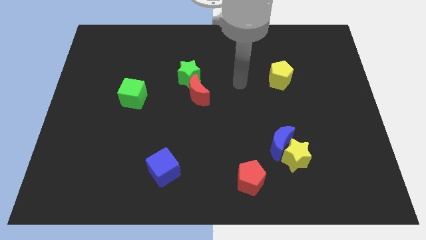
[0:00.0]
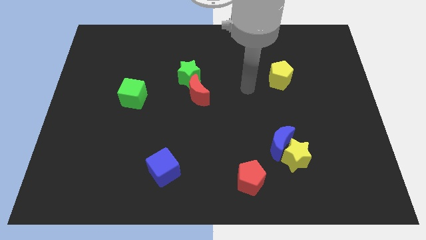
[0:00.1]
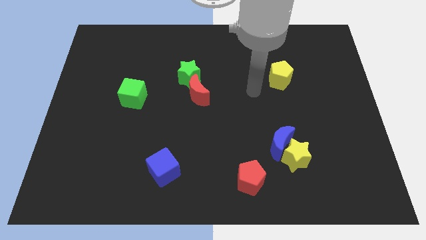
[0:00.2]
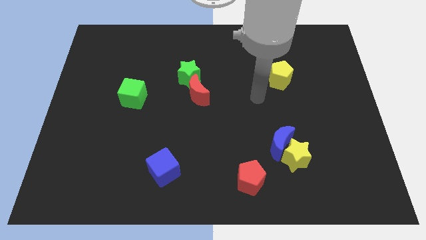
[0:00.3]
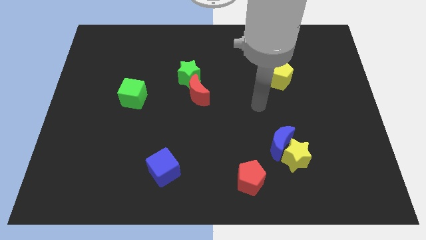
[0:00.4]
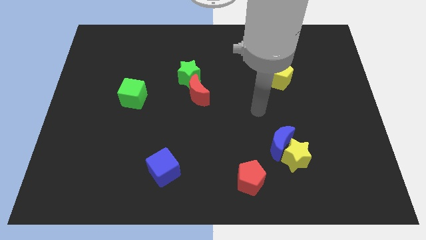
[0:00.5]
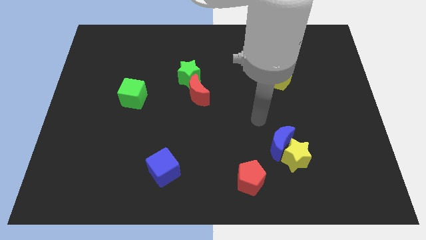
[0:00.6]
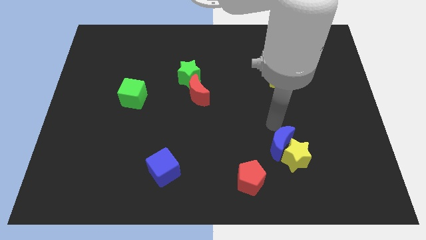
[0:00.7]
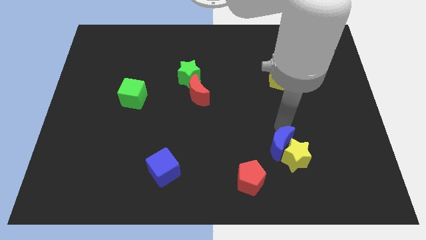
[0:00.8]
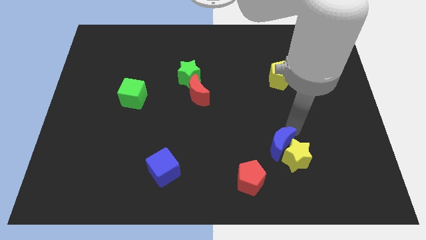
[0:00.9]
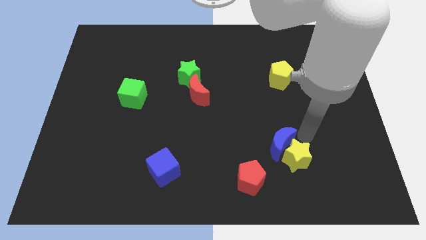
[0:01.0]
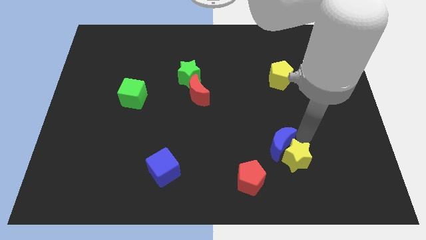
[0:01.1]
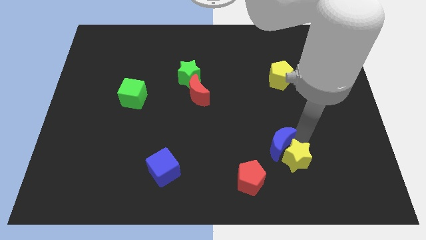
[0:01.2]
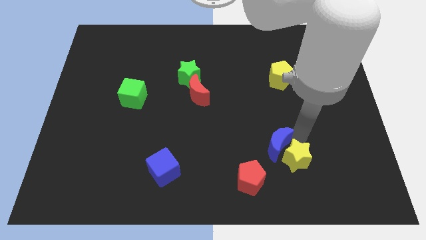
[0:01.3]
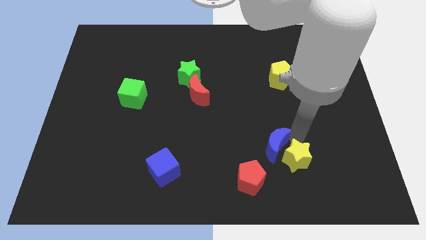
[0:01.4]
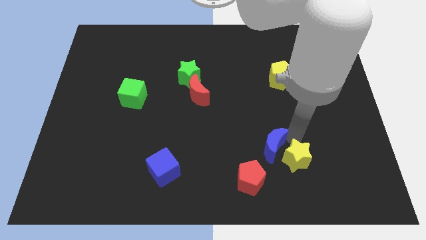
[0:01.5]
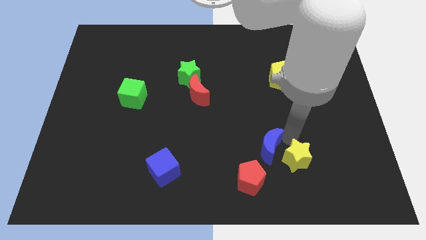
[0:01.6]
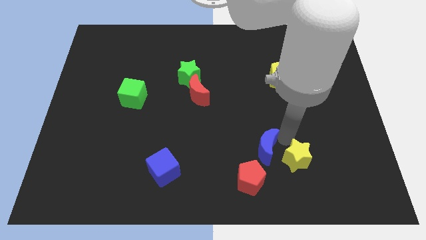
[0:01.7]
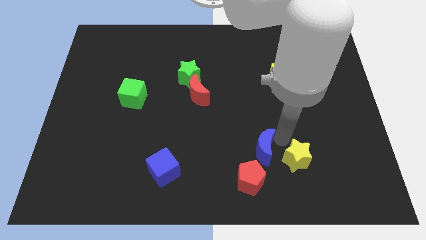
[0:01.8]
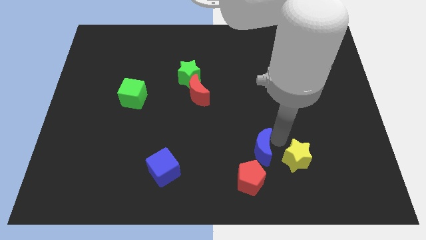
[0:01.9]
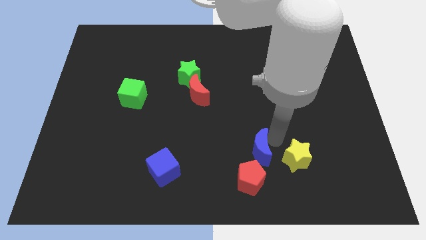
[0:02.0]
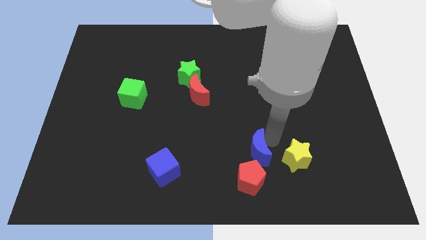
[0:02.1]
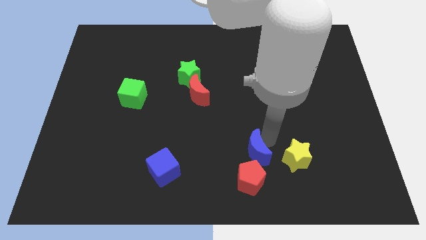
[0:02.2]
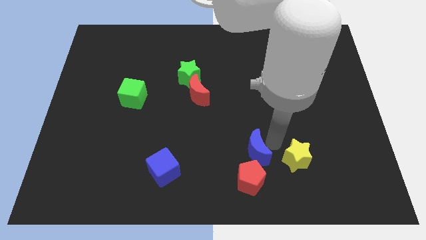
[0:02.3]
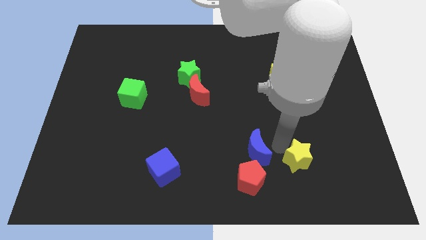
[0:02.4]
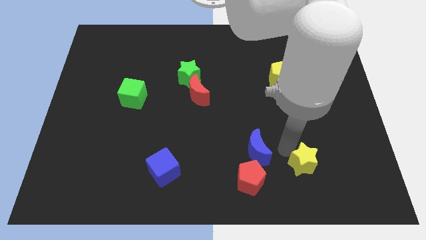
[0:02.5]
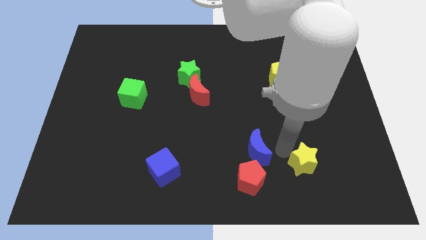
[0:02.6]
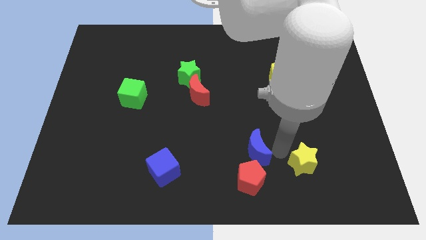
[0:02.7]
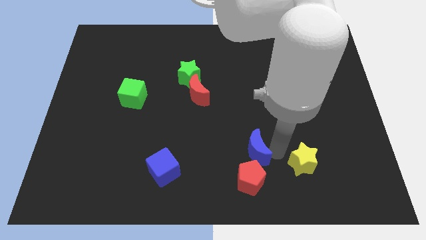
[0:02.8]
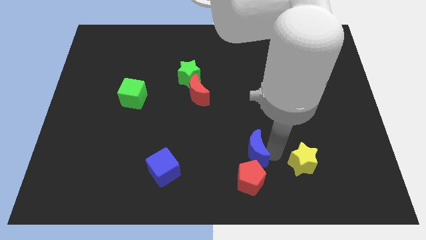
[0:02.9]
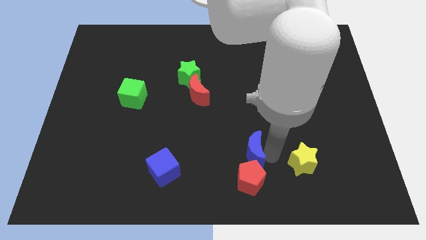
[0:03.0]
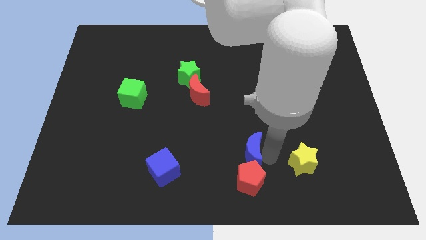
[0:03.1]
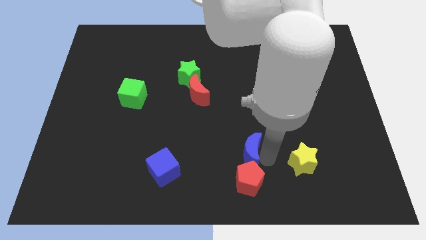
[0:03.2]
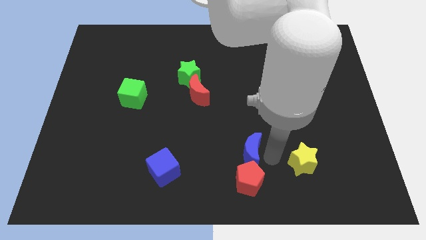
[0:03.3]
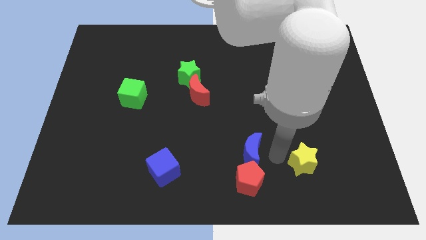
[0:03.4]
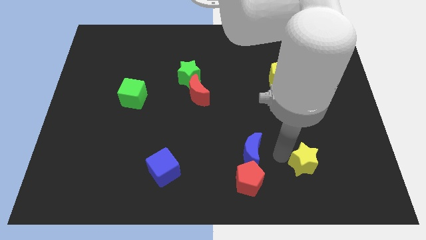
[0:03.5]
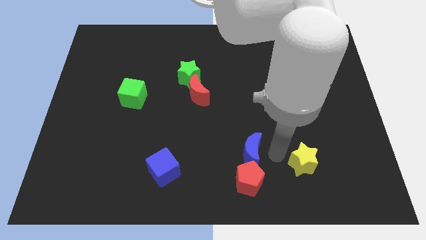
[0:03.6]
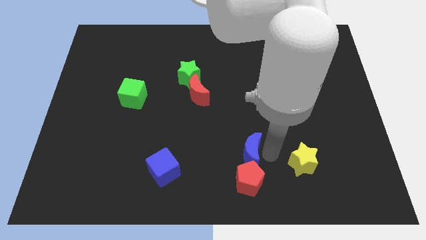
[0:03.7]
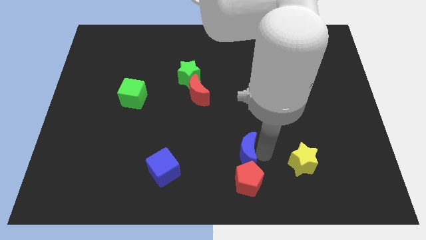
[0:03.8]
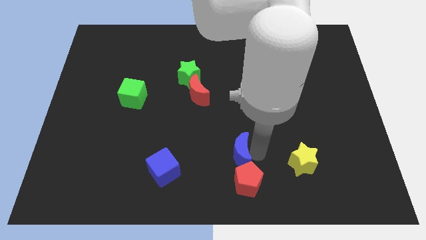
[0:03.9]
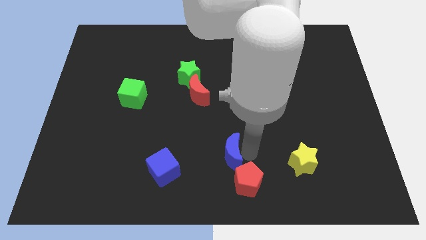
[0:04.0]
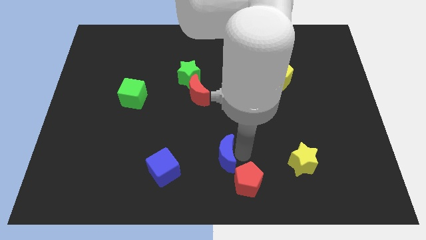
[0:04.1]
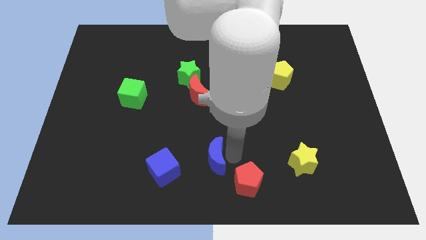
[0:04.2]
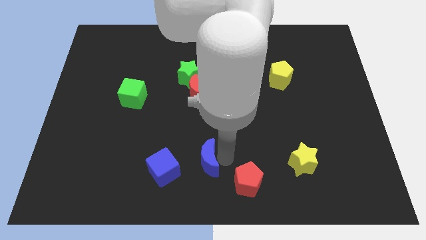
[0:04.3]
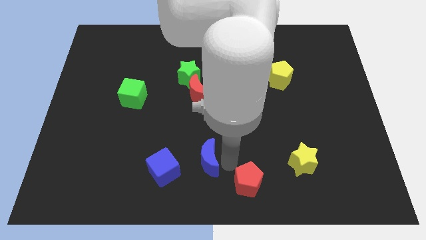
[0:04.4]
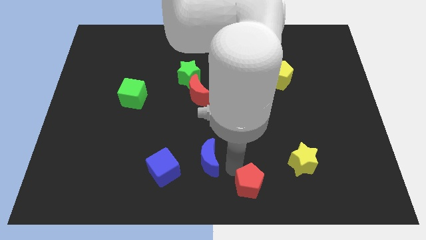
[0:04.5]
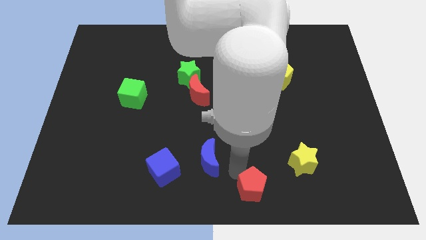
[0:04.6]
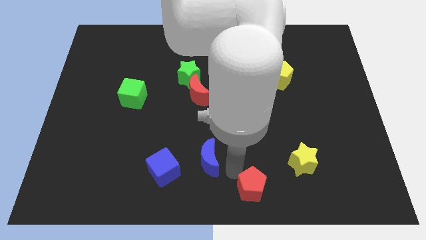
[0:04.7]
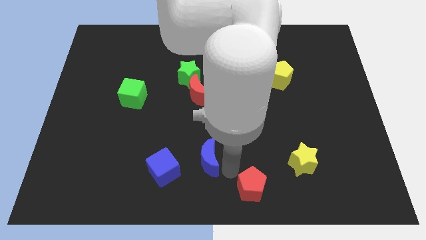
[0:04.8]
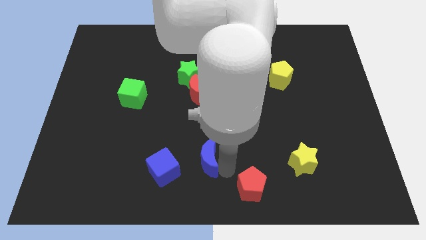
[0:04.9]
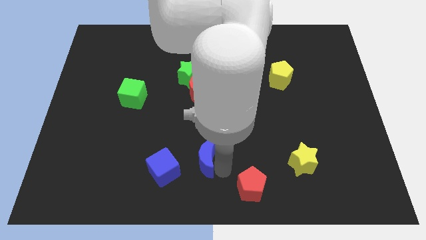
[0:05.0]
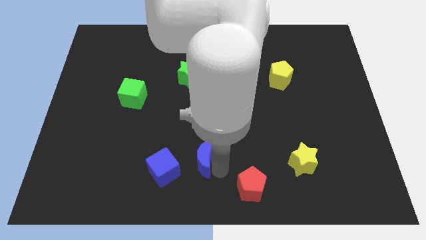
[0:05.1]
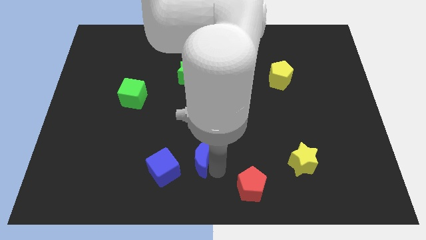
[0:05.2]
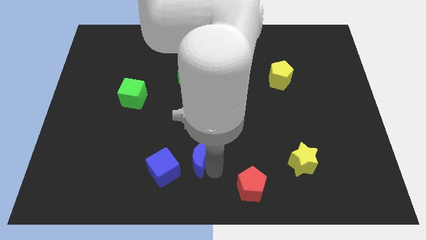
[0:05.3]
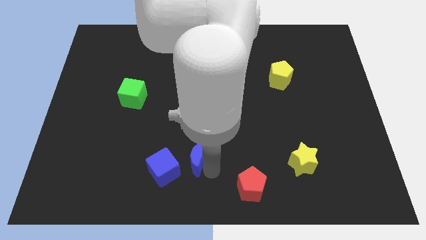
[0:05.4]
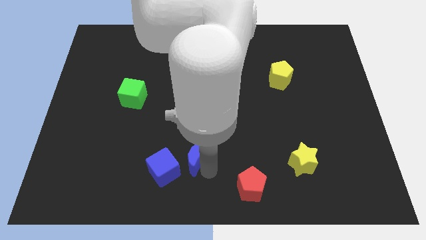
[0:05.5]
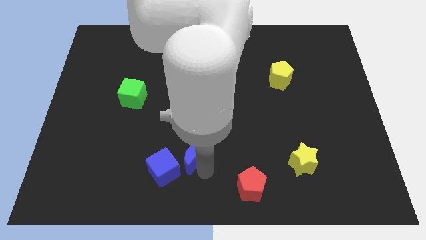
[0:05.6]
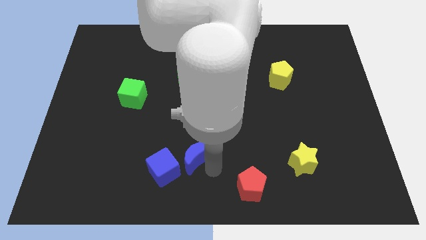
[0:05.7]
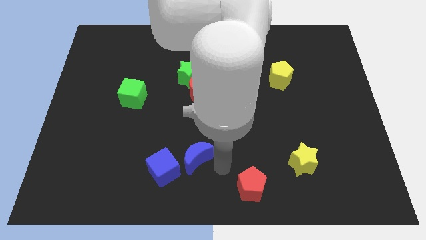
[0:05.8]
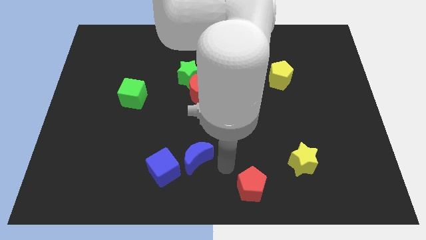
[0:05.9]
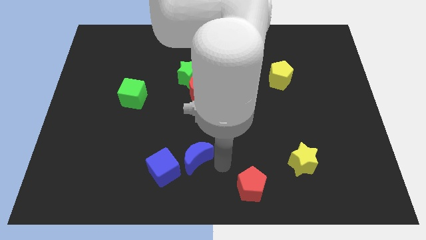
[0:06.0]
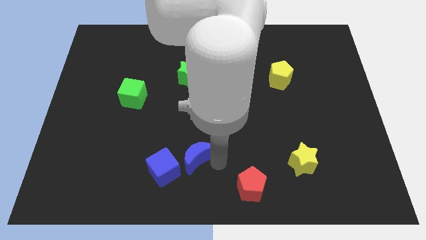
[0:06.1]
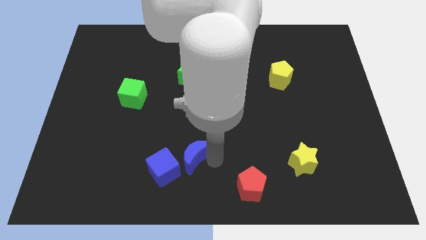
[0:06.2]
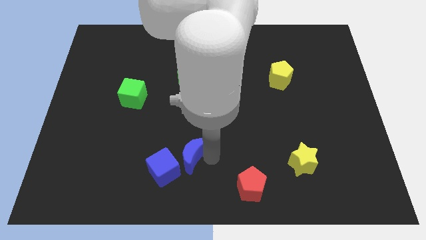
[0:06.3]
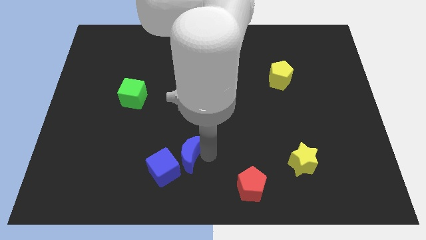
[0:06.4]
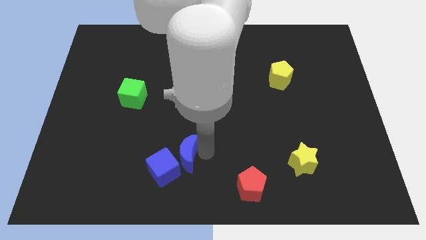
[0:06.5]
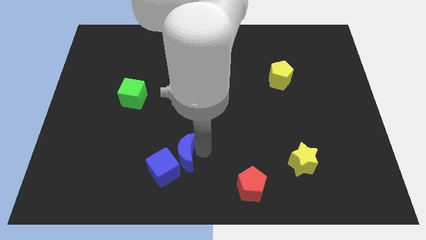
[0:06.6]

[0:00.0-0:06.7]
slide the blue moon to the left

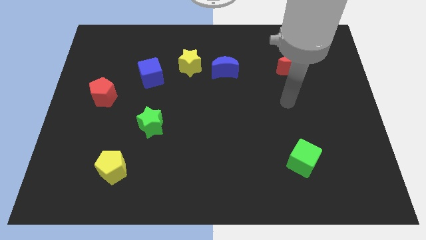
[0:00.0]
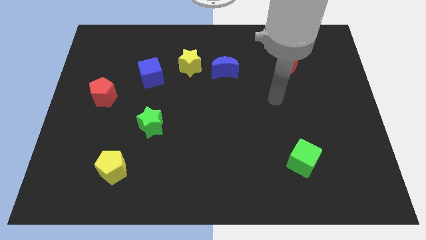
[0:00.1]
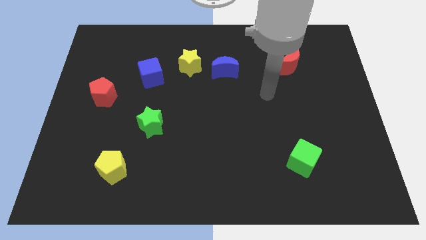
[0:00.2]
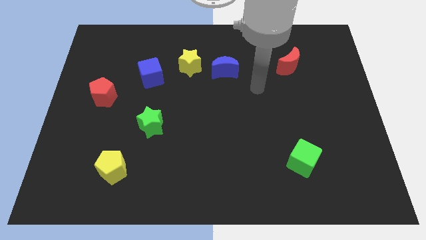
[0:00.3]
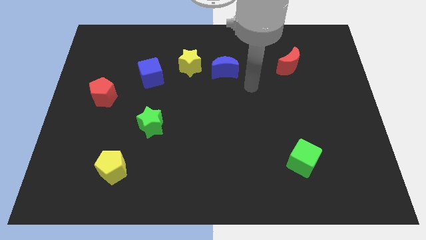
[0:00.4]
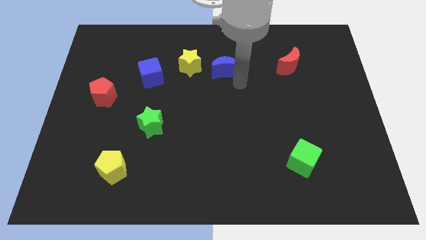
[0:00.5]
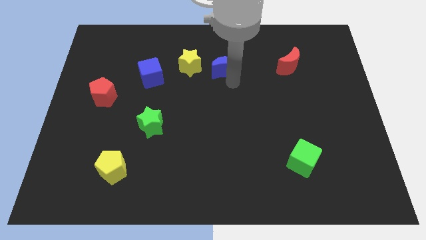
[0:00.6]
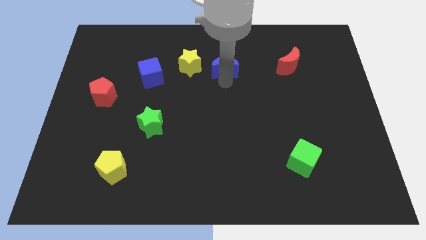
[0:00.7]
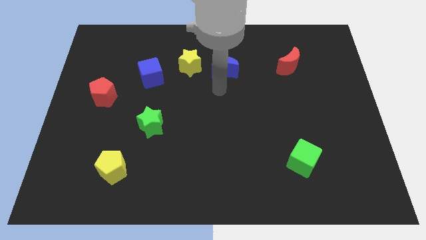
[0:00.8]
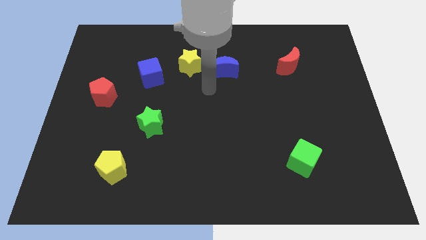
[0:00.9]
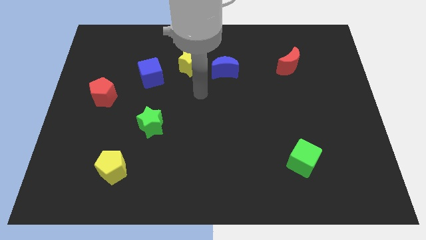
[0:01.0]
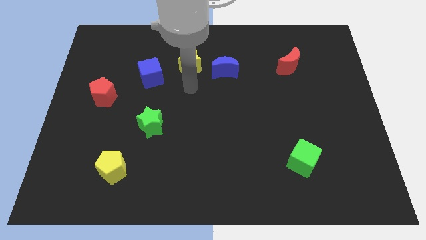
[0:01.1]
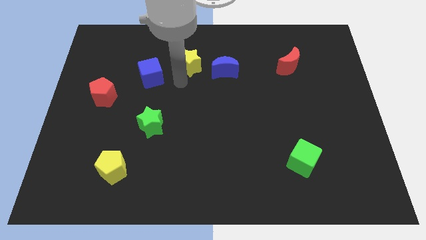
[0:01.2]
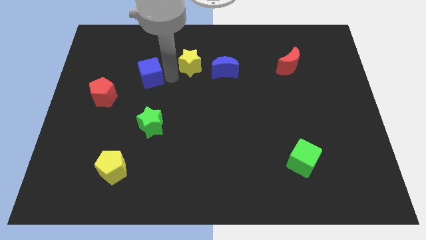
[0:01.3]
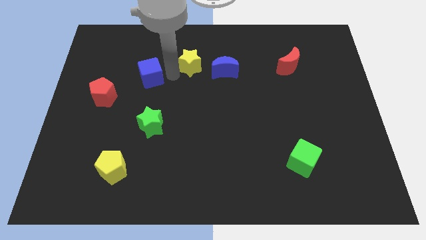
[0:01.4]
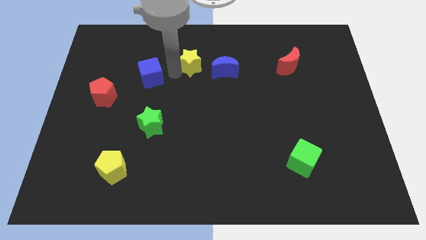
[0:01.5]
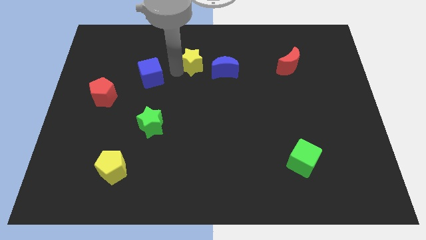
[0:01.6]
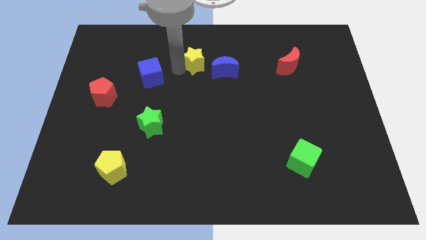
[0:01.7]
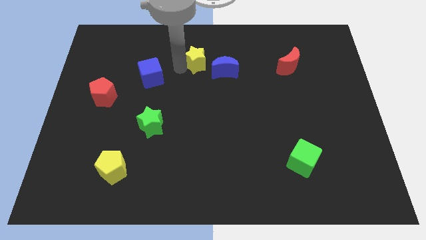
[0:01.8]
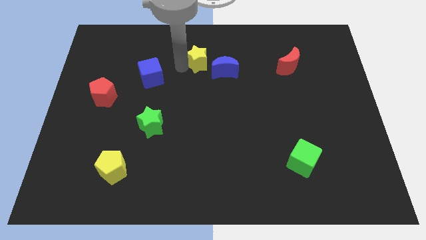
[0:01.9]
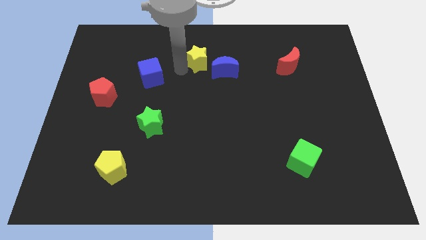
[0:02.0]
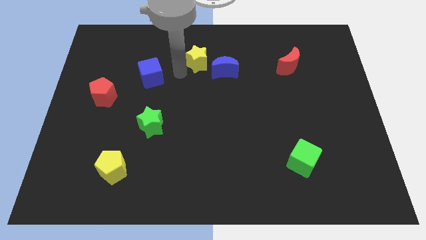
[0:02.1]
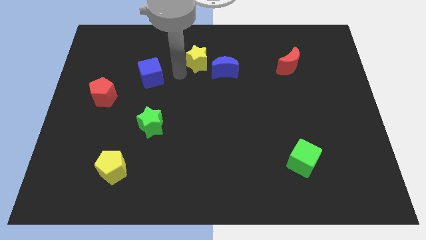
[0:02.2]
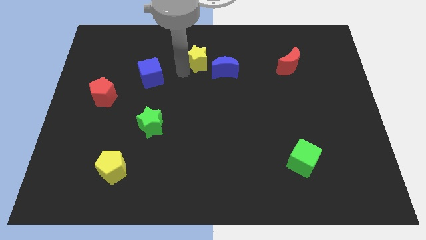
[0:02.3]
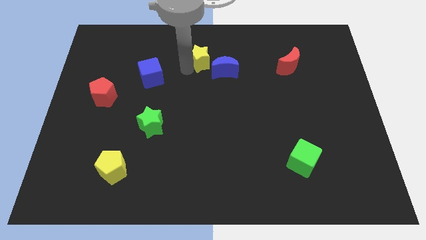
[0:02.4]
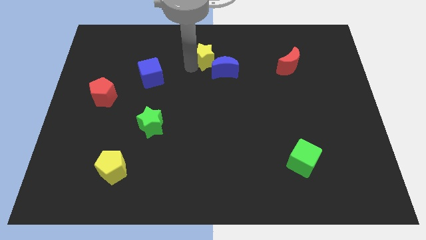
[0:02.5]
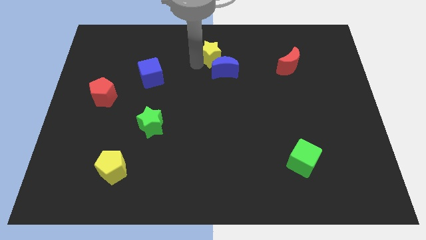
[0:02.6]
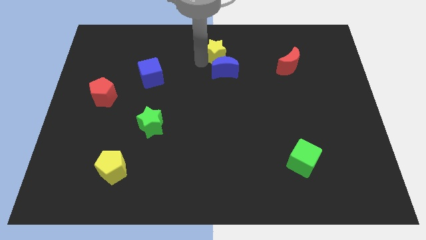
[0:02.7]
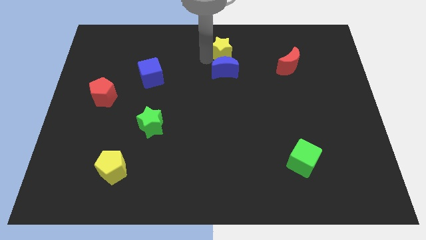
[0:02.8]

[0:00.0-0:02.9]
move the yellow star a bit right
